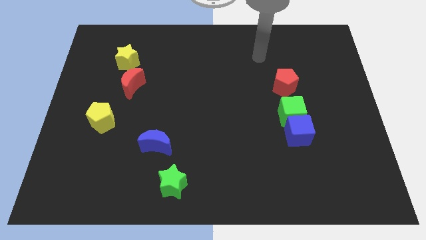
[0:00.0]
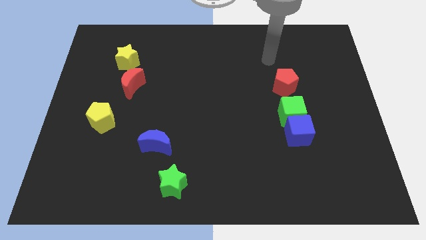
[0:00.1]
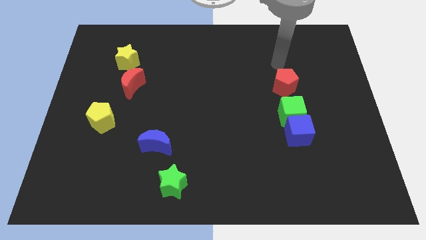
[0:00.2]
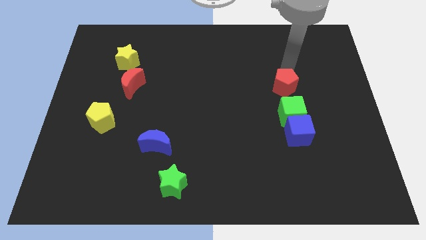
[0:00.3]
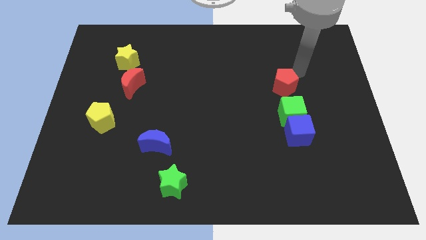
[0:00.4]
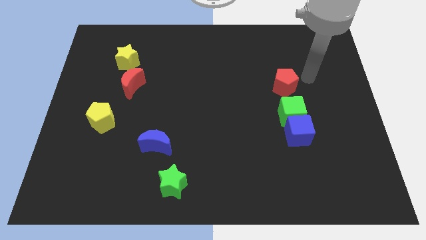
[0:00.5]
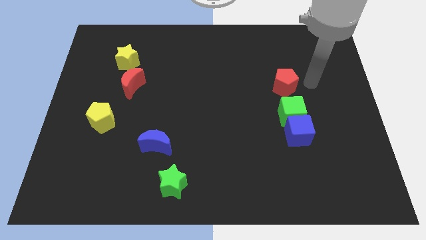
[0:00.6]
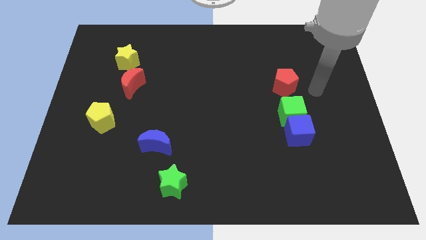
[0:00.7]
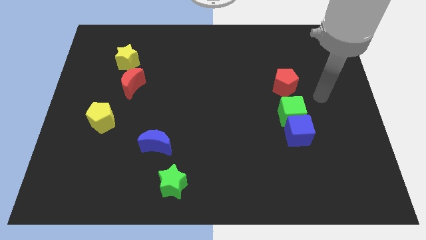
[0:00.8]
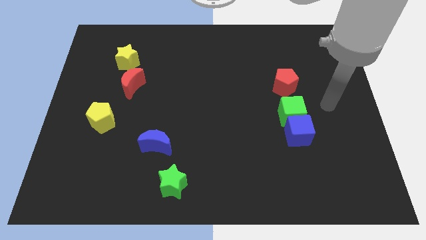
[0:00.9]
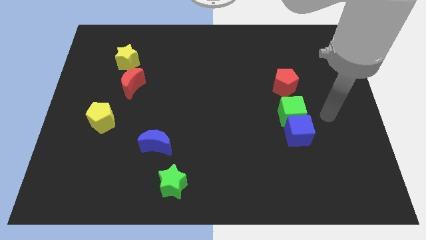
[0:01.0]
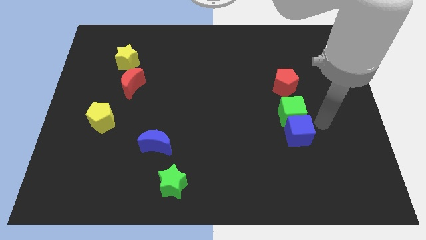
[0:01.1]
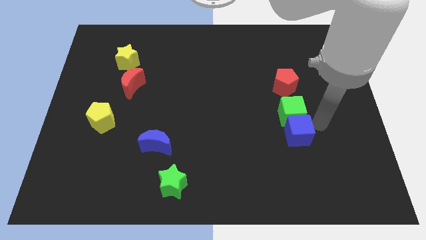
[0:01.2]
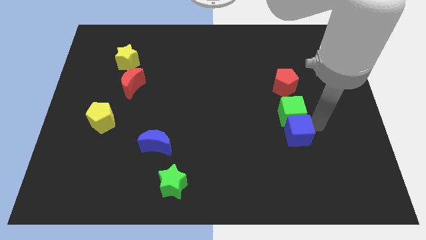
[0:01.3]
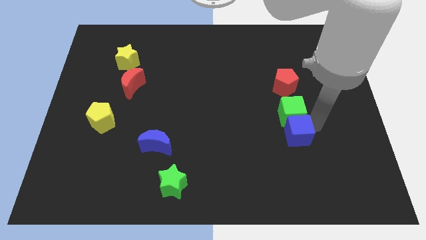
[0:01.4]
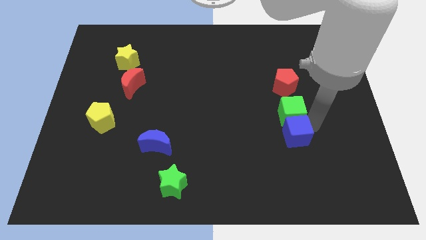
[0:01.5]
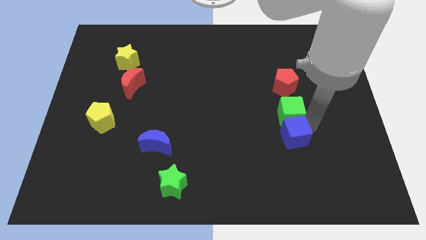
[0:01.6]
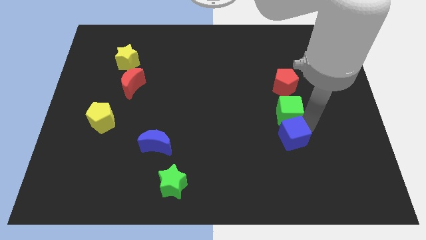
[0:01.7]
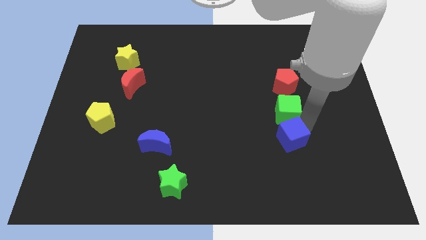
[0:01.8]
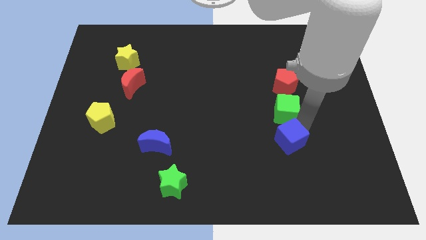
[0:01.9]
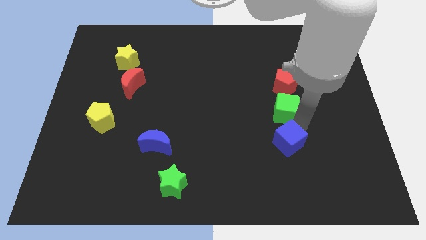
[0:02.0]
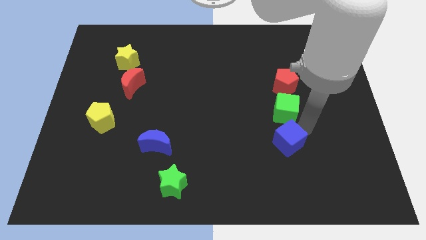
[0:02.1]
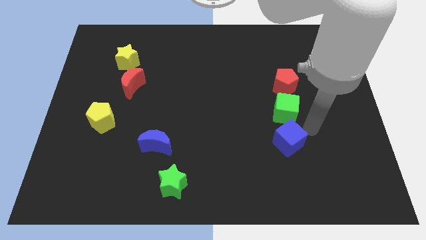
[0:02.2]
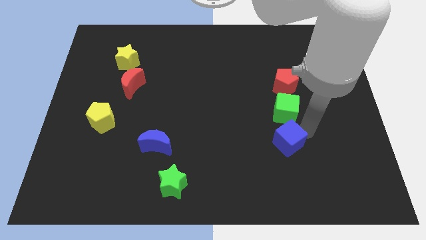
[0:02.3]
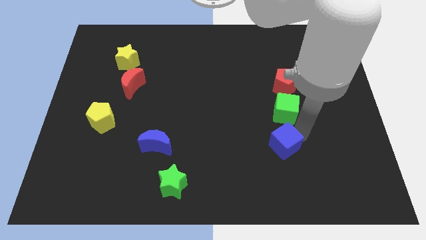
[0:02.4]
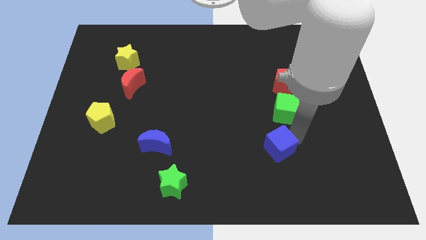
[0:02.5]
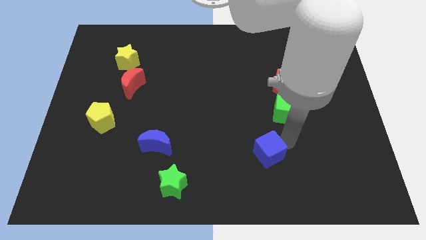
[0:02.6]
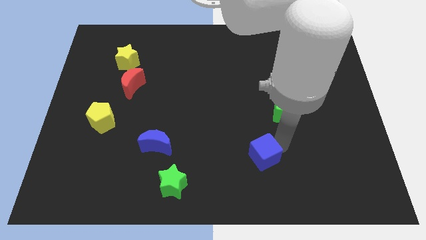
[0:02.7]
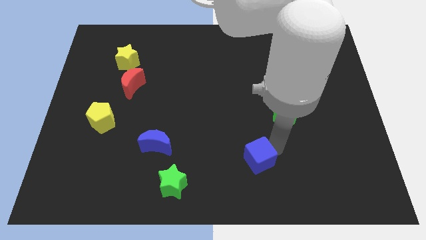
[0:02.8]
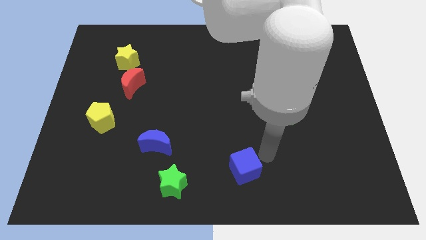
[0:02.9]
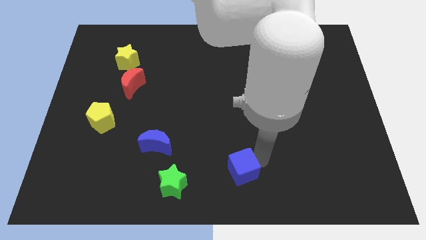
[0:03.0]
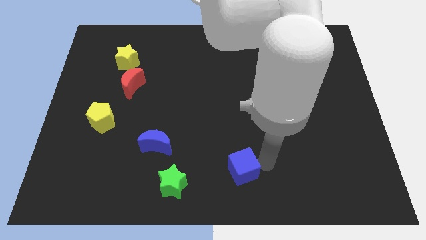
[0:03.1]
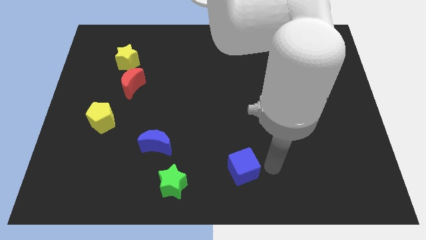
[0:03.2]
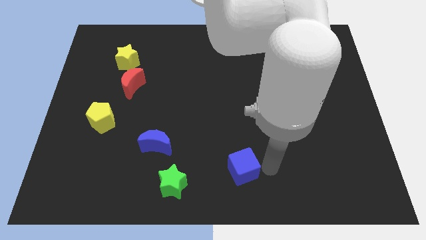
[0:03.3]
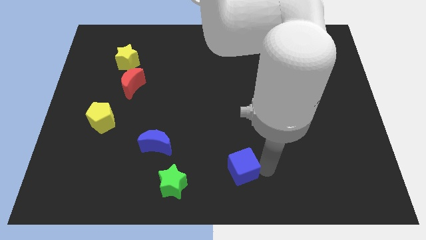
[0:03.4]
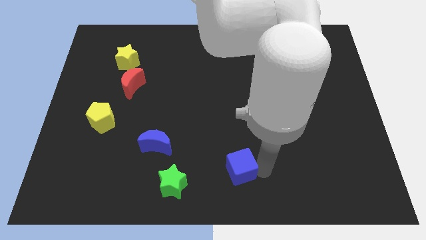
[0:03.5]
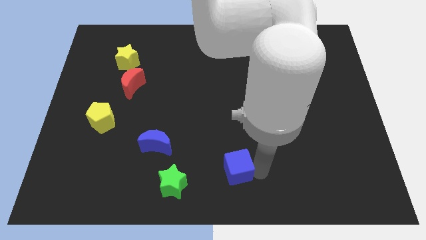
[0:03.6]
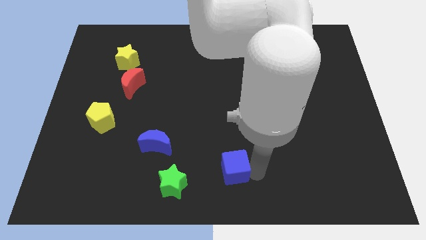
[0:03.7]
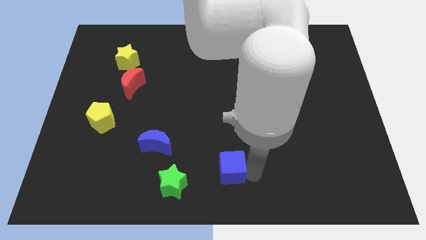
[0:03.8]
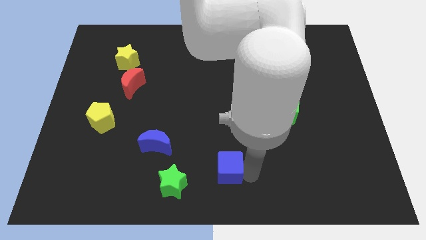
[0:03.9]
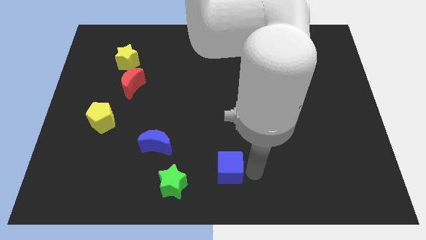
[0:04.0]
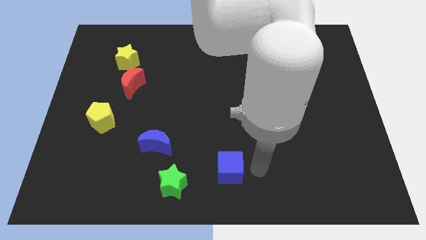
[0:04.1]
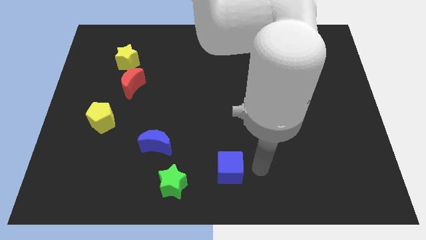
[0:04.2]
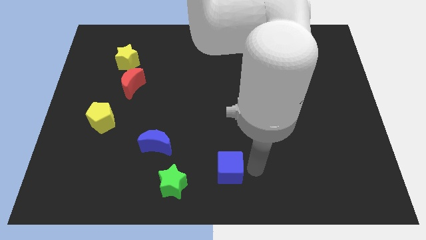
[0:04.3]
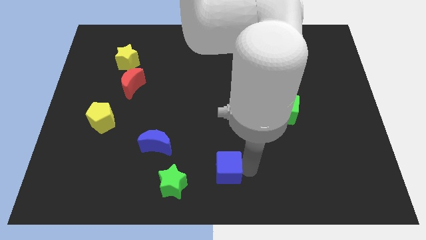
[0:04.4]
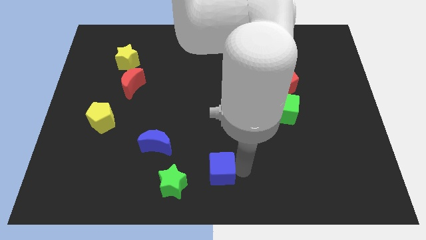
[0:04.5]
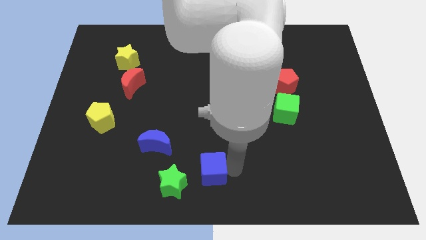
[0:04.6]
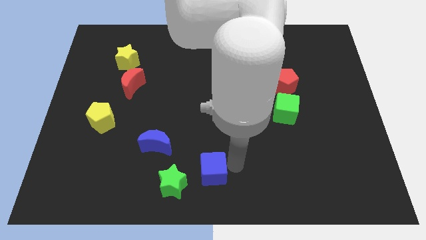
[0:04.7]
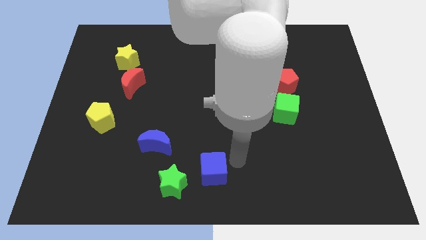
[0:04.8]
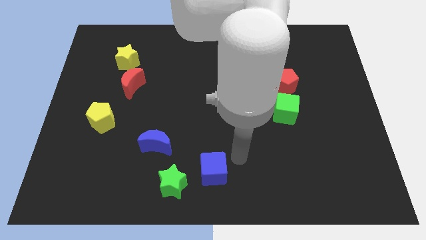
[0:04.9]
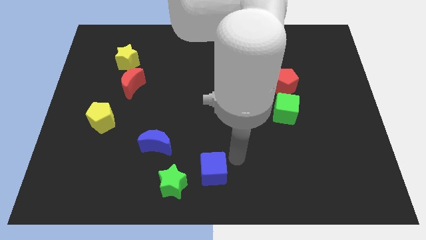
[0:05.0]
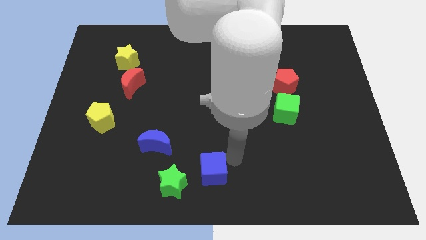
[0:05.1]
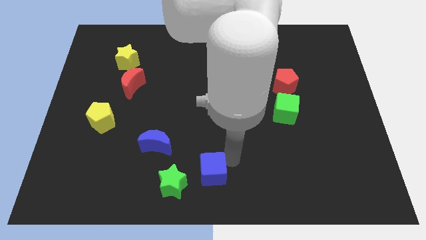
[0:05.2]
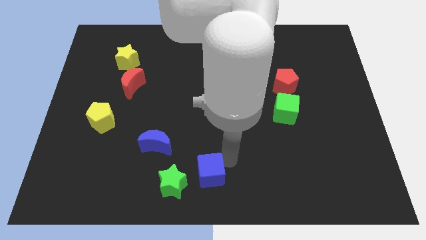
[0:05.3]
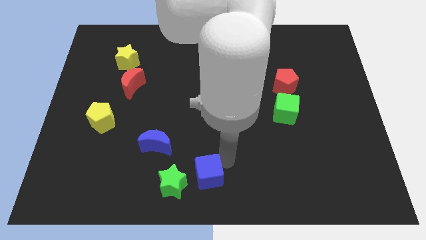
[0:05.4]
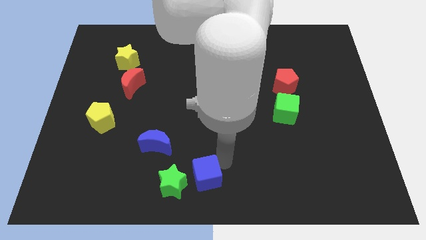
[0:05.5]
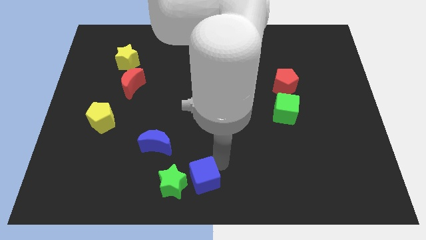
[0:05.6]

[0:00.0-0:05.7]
slide the blue cube next to the green star

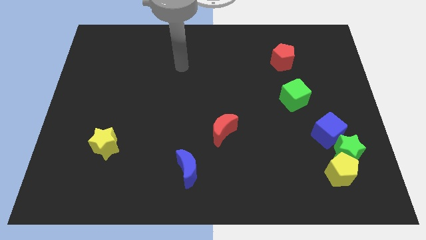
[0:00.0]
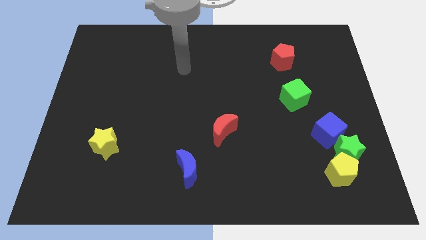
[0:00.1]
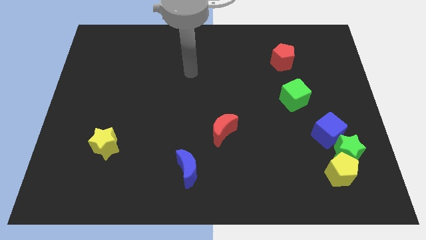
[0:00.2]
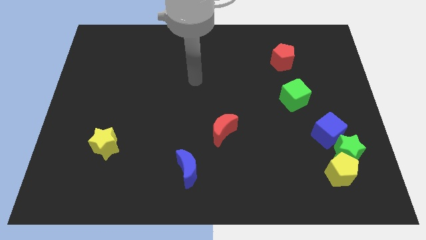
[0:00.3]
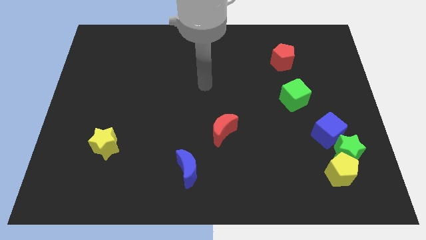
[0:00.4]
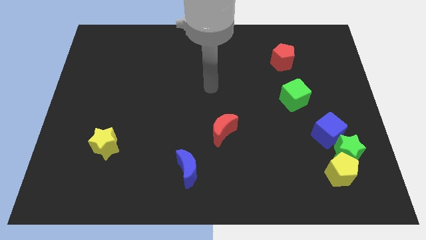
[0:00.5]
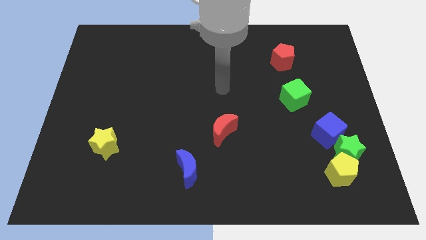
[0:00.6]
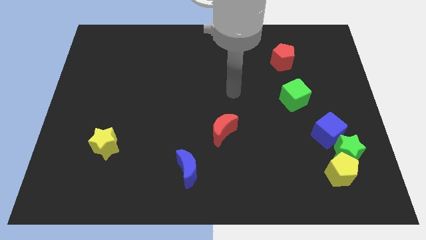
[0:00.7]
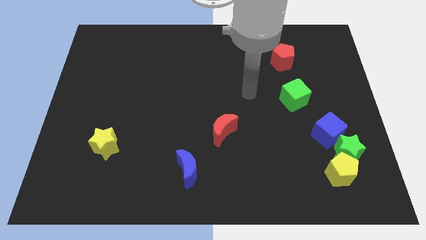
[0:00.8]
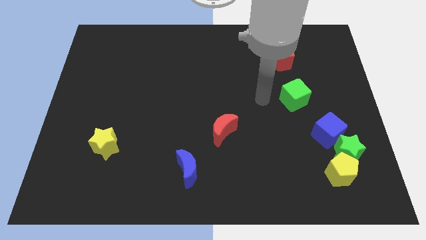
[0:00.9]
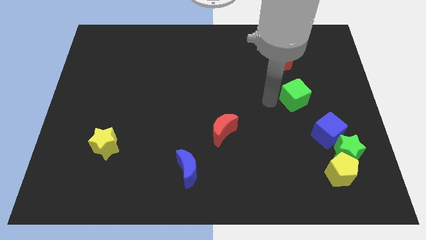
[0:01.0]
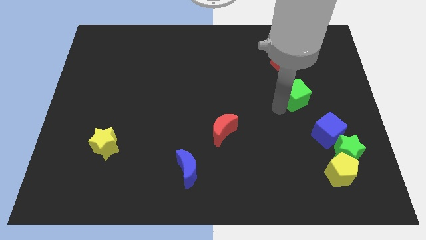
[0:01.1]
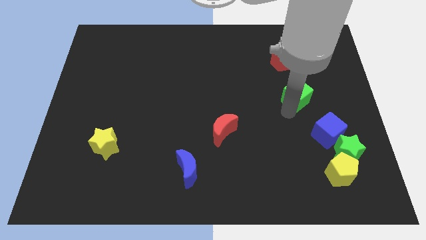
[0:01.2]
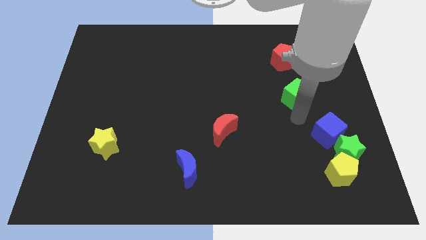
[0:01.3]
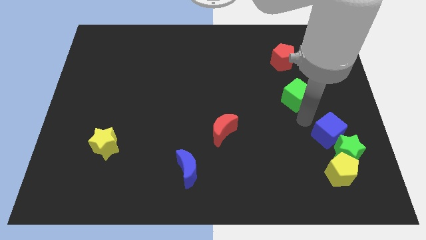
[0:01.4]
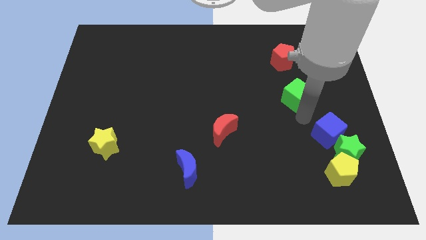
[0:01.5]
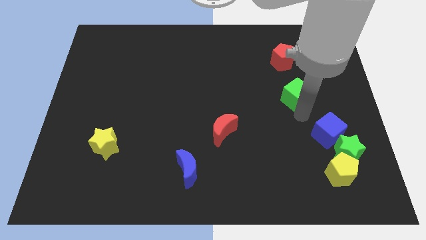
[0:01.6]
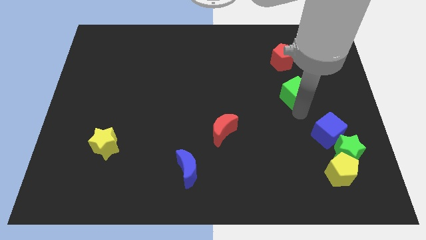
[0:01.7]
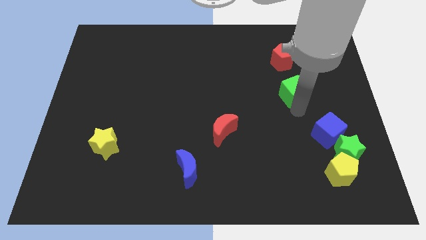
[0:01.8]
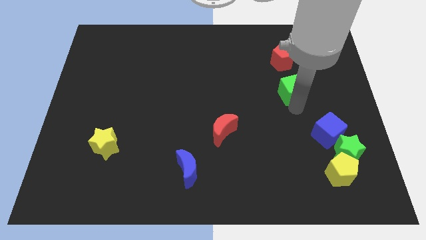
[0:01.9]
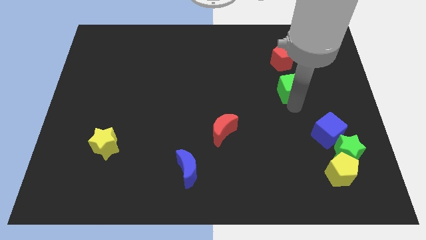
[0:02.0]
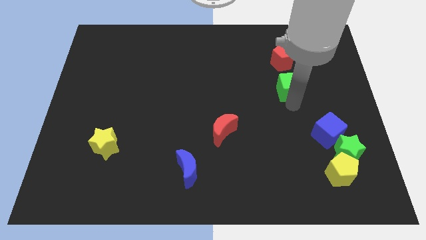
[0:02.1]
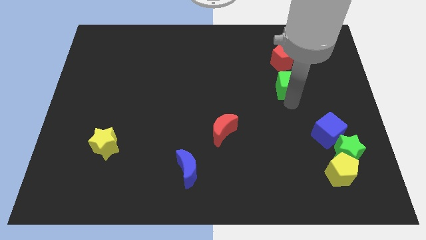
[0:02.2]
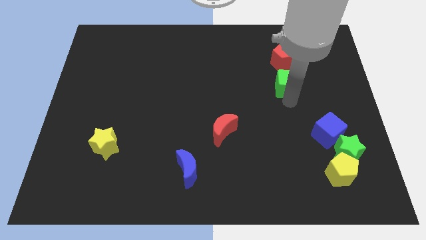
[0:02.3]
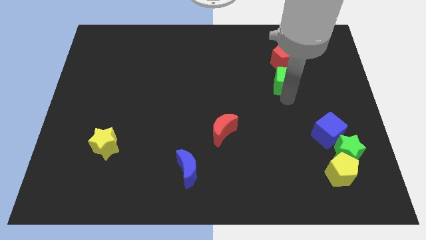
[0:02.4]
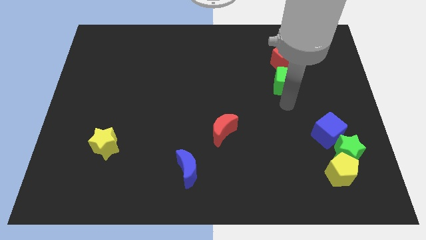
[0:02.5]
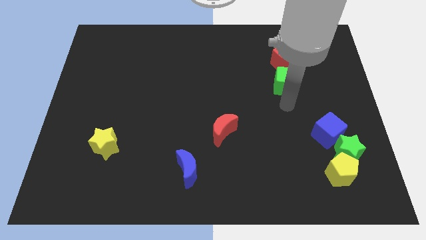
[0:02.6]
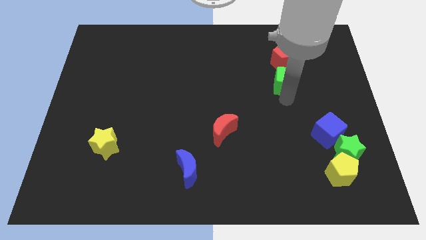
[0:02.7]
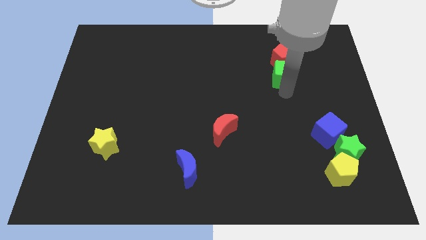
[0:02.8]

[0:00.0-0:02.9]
move the green cube to the red pentagon
